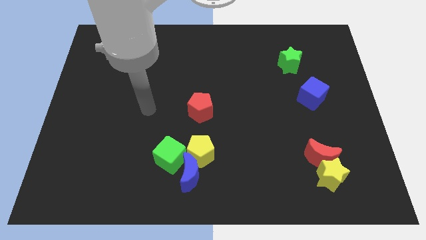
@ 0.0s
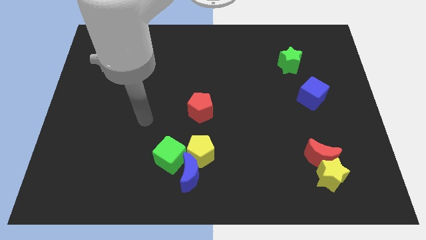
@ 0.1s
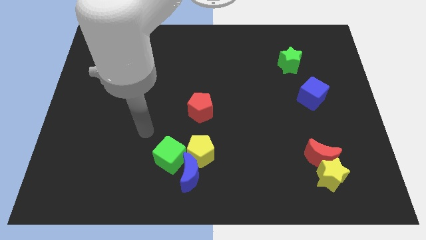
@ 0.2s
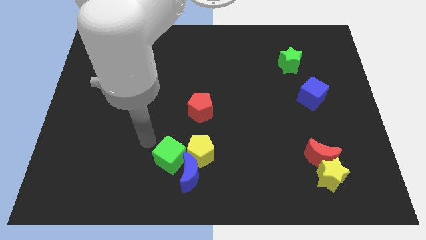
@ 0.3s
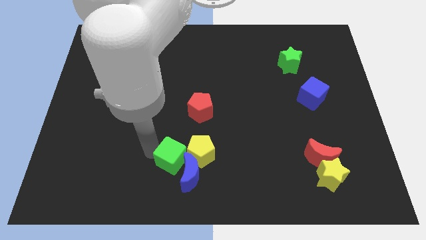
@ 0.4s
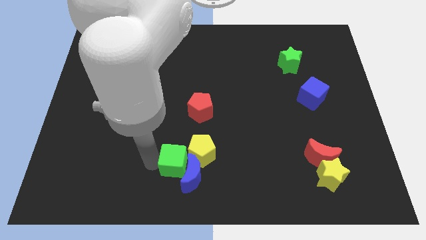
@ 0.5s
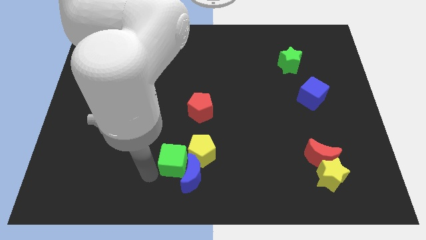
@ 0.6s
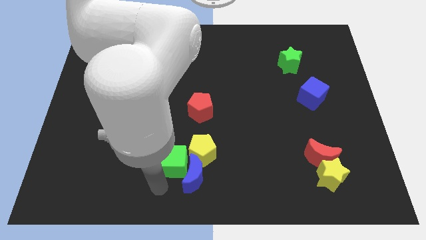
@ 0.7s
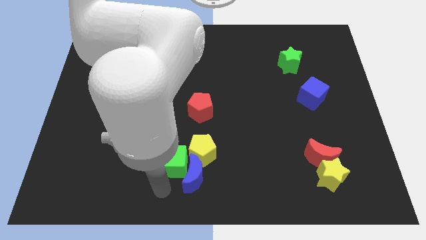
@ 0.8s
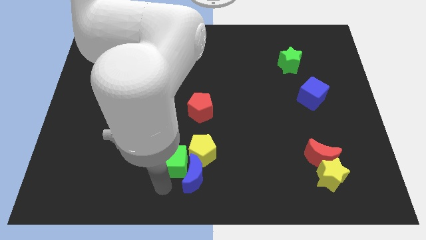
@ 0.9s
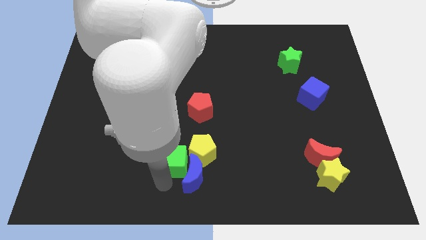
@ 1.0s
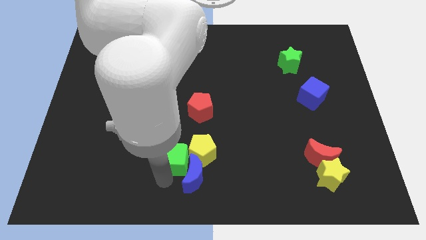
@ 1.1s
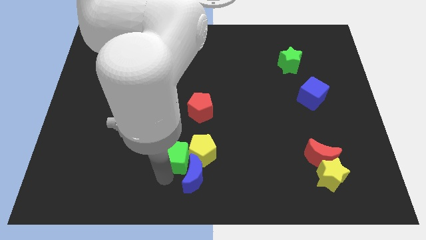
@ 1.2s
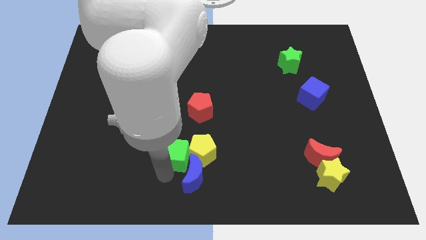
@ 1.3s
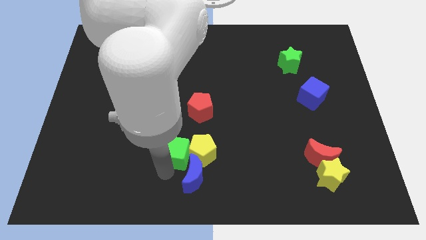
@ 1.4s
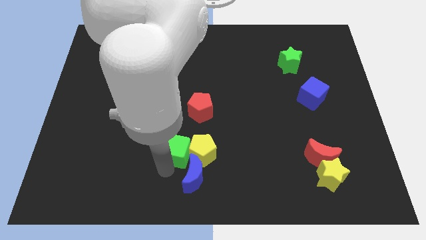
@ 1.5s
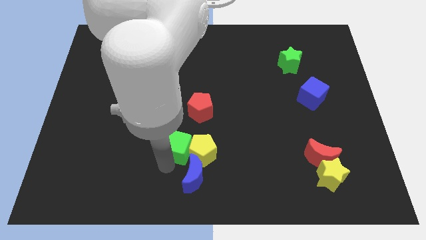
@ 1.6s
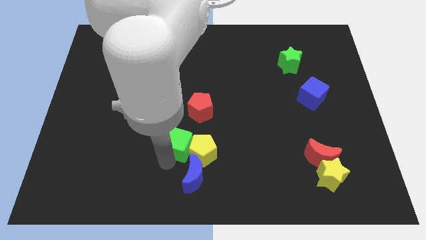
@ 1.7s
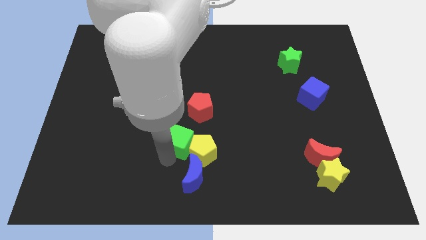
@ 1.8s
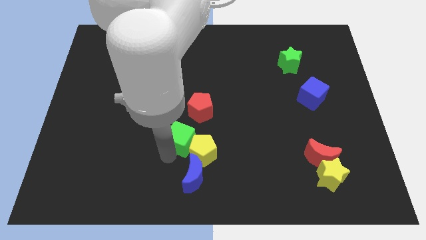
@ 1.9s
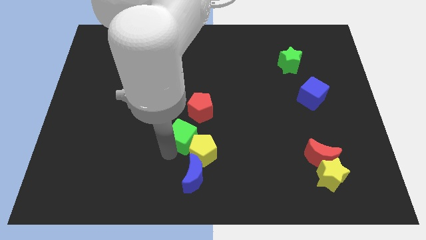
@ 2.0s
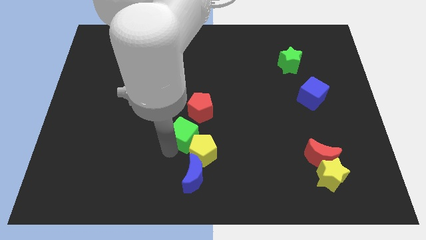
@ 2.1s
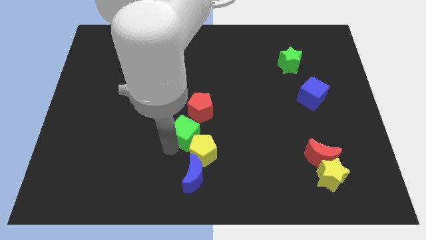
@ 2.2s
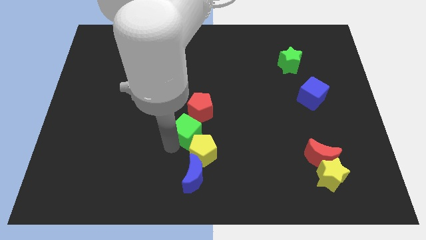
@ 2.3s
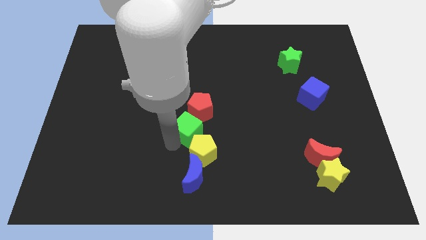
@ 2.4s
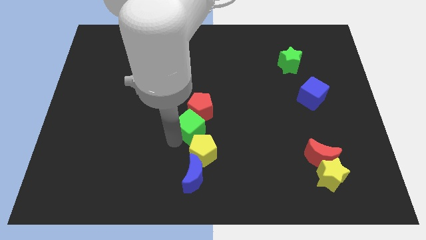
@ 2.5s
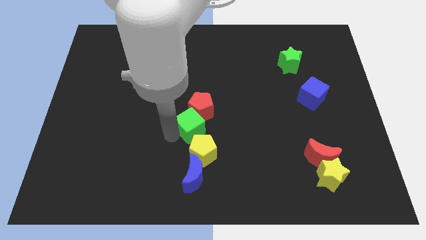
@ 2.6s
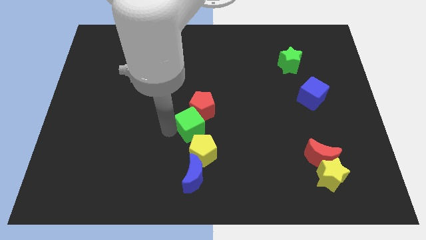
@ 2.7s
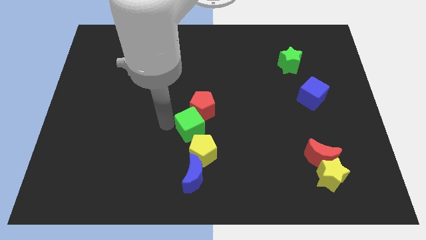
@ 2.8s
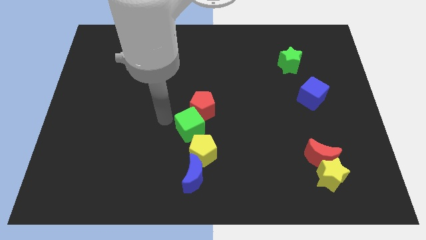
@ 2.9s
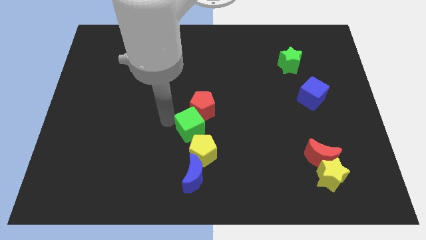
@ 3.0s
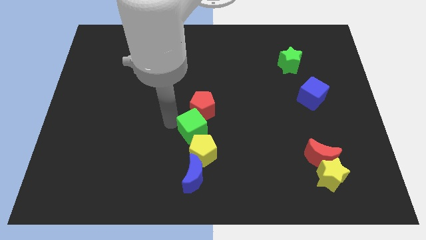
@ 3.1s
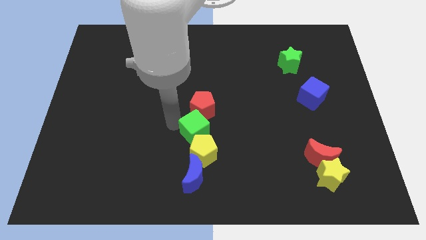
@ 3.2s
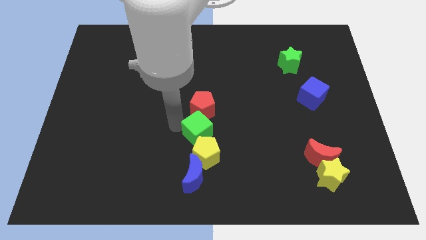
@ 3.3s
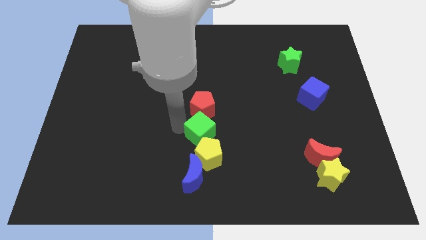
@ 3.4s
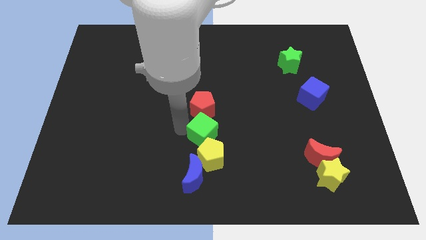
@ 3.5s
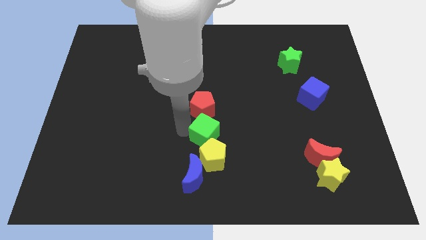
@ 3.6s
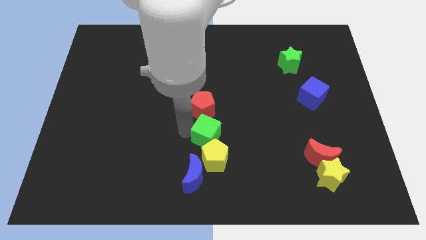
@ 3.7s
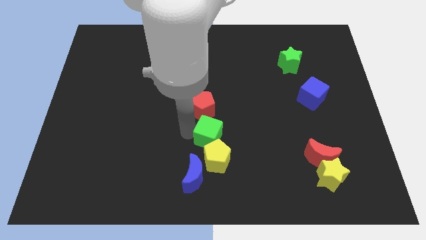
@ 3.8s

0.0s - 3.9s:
slide the green cube to the right a little bit

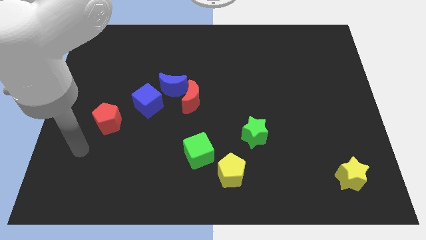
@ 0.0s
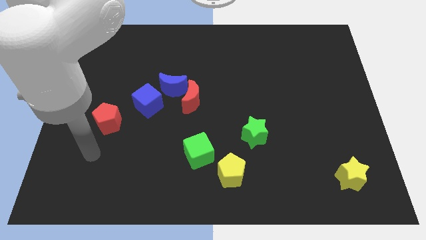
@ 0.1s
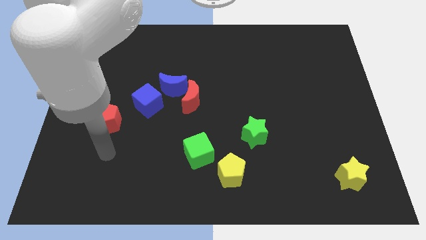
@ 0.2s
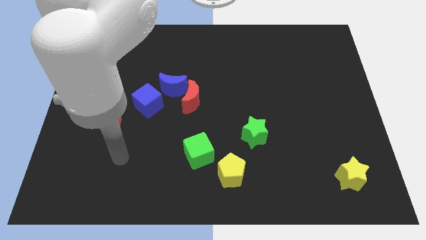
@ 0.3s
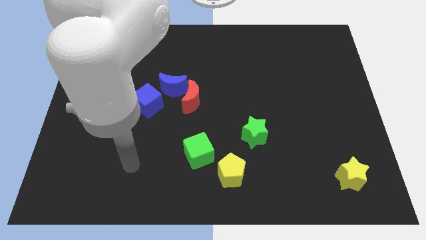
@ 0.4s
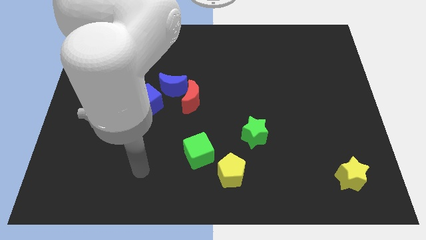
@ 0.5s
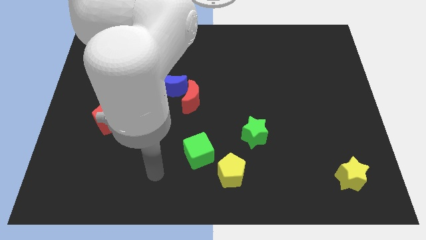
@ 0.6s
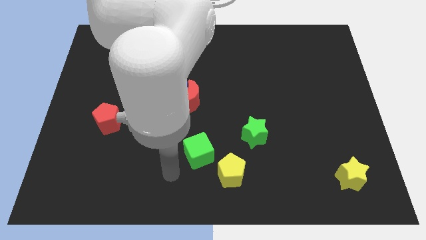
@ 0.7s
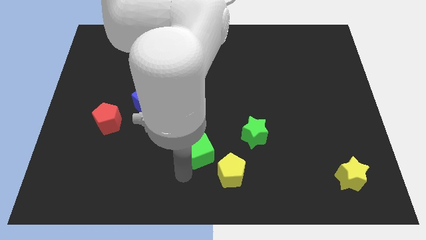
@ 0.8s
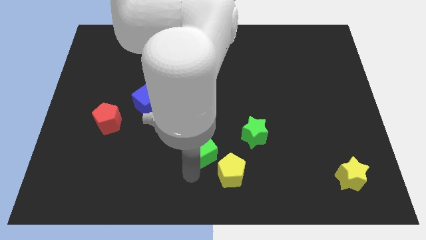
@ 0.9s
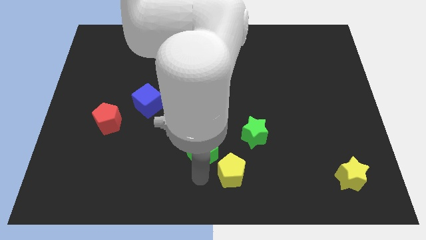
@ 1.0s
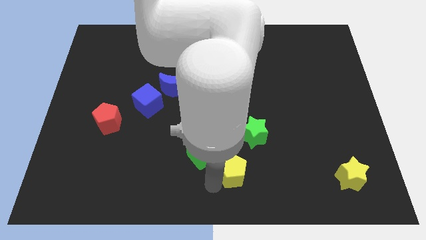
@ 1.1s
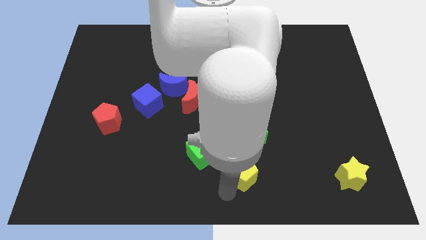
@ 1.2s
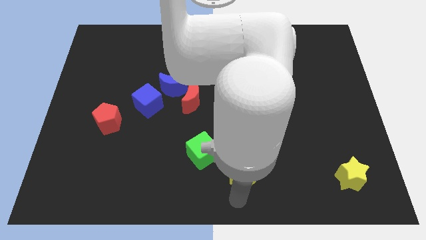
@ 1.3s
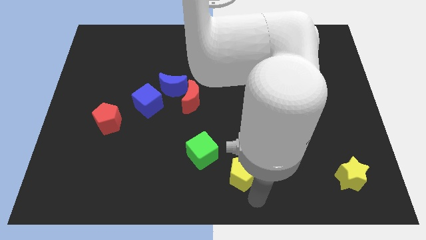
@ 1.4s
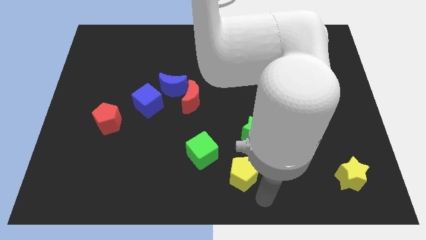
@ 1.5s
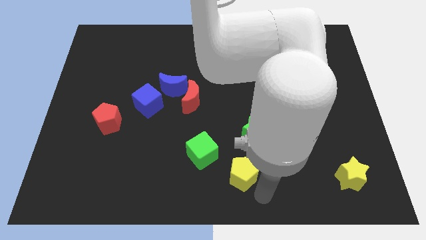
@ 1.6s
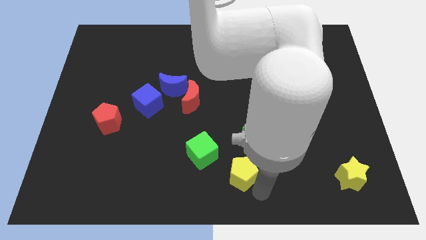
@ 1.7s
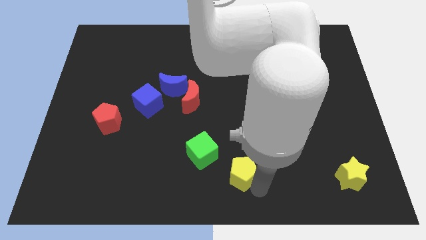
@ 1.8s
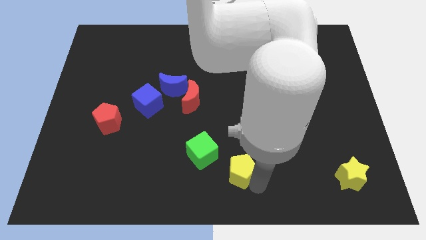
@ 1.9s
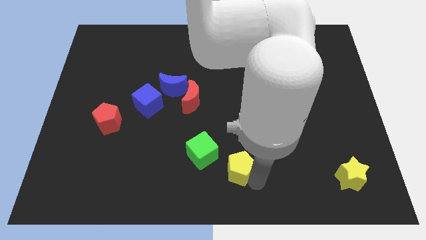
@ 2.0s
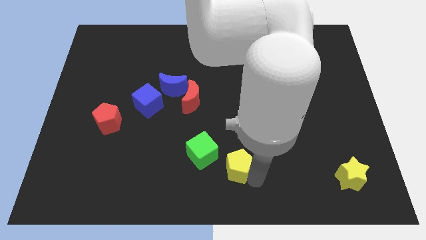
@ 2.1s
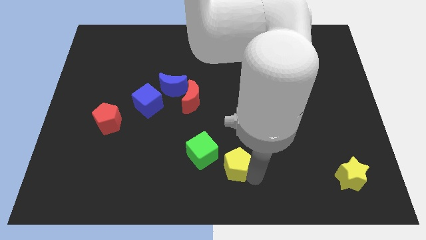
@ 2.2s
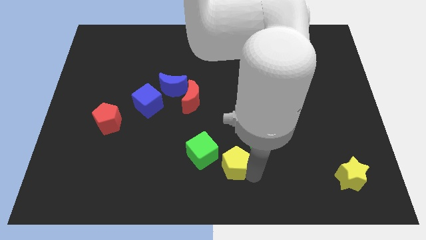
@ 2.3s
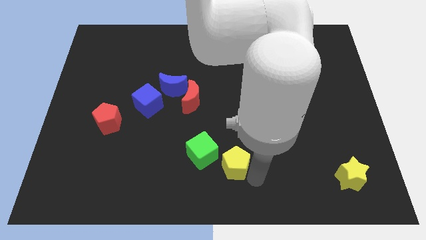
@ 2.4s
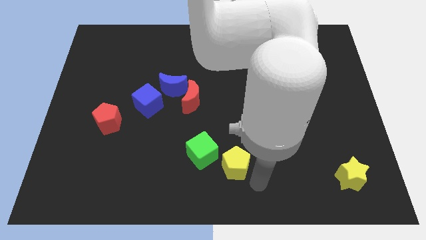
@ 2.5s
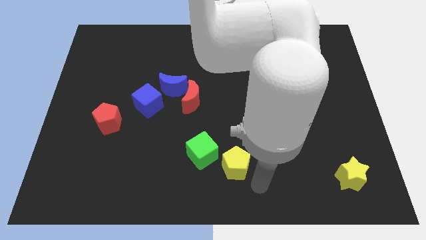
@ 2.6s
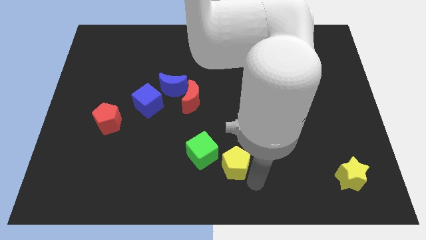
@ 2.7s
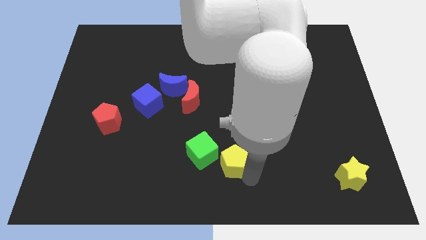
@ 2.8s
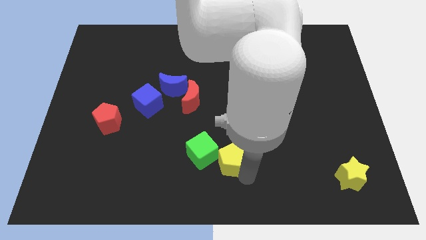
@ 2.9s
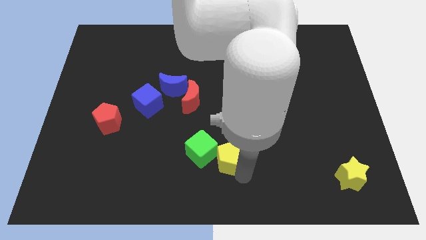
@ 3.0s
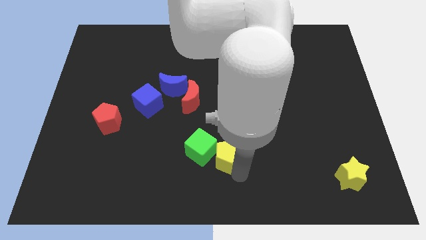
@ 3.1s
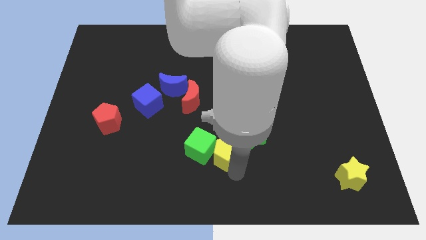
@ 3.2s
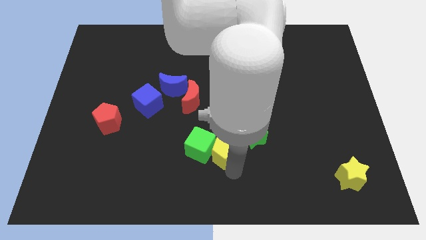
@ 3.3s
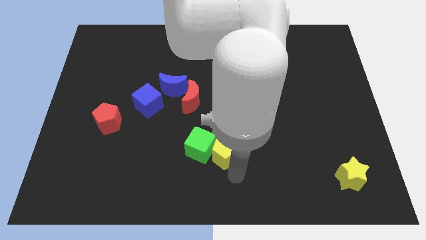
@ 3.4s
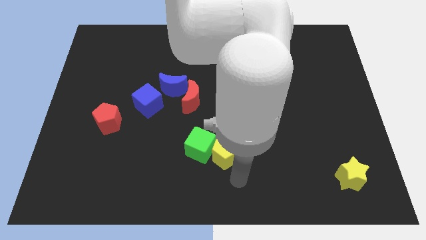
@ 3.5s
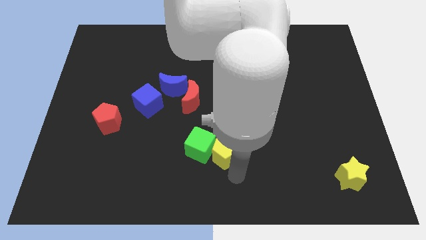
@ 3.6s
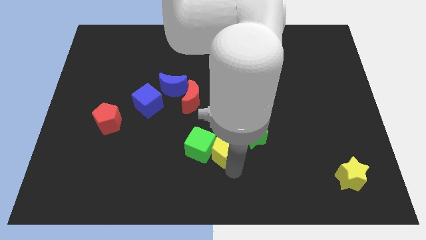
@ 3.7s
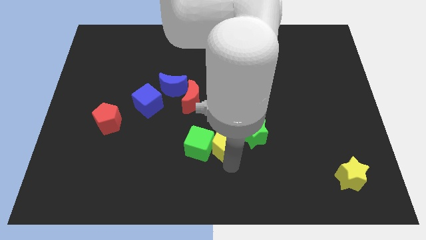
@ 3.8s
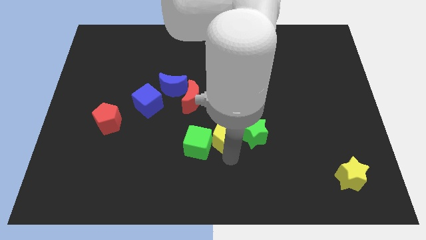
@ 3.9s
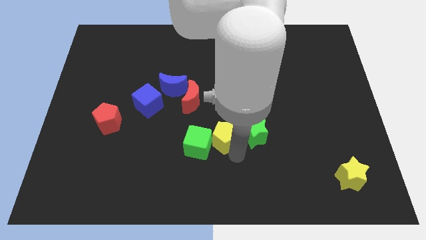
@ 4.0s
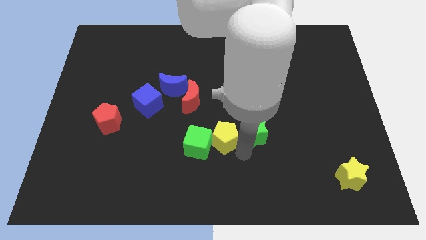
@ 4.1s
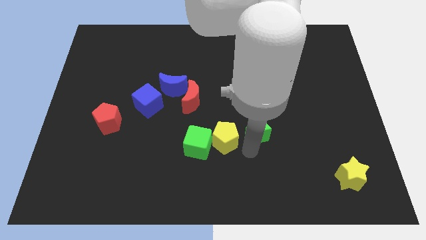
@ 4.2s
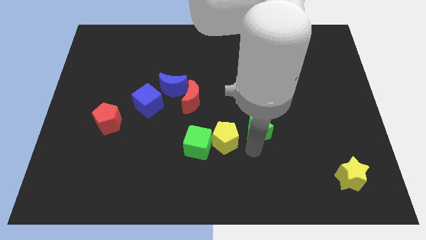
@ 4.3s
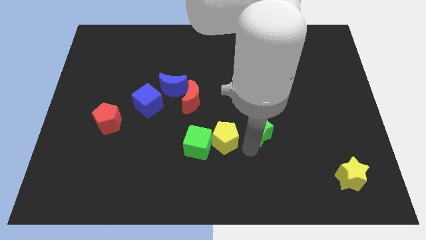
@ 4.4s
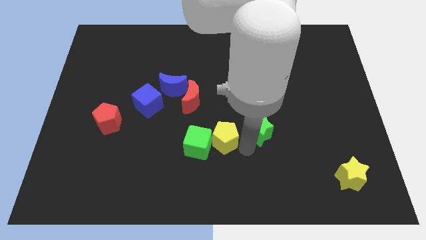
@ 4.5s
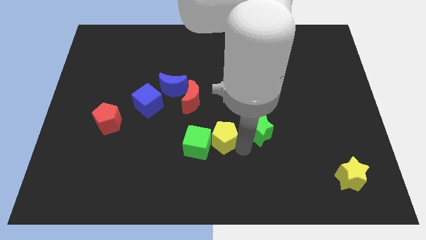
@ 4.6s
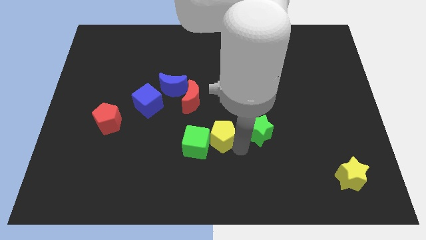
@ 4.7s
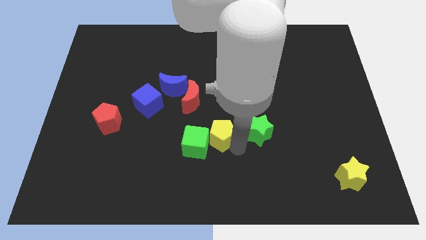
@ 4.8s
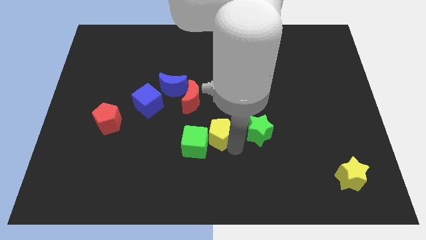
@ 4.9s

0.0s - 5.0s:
push the yellow pentagon a little up and to the left diagonally
